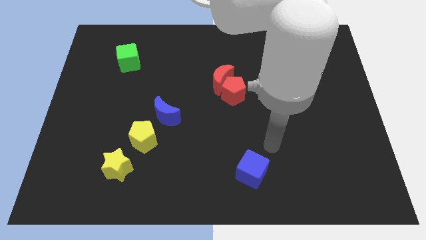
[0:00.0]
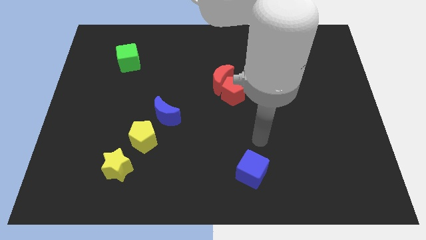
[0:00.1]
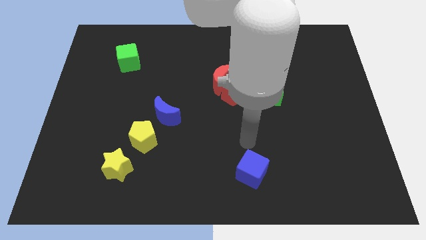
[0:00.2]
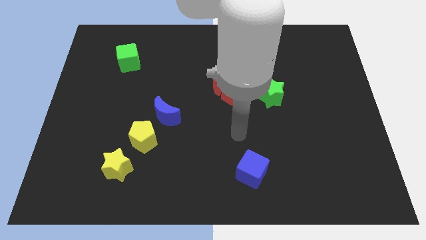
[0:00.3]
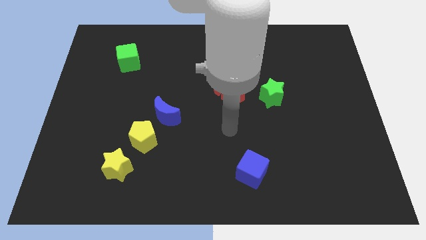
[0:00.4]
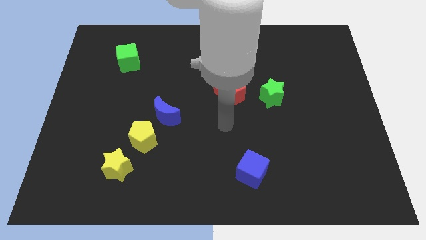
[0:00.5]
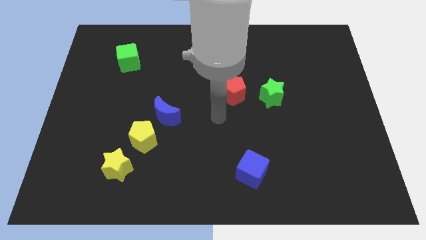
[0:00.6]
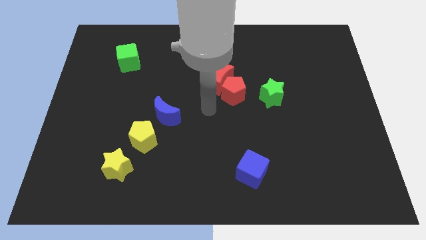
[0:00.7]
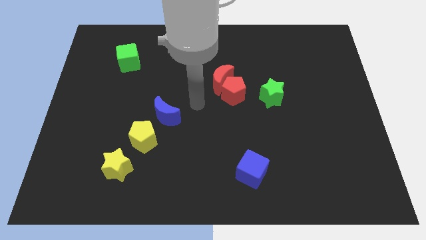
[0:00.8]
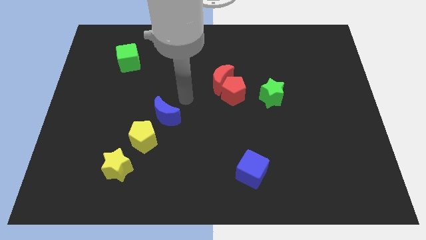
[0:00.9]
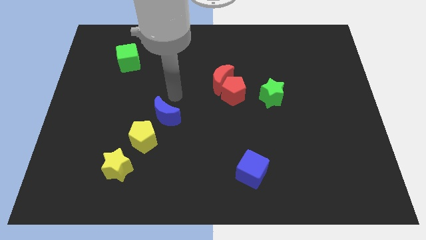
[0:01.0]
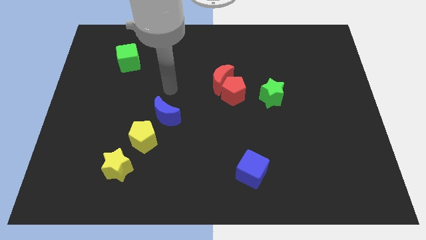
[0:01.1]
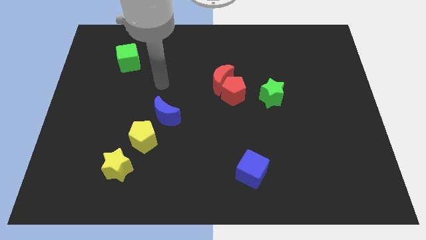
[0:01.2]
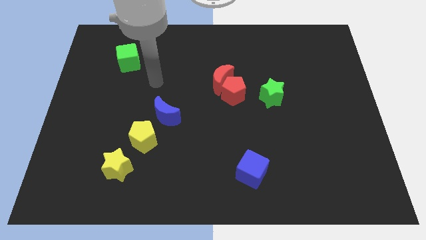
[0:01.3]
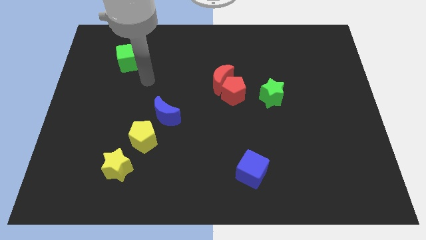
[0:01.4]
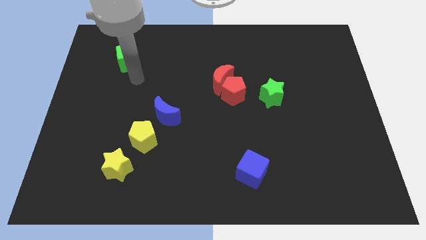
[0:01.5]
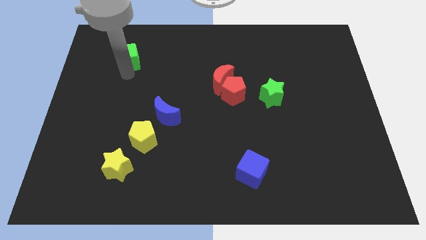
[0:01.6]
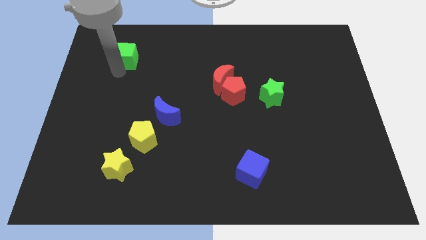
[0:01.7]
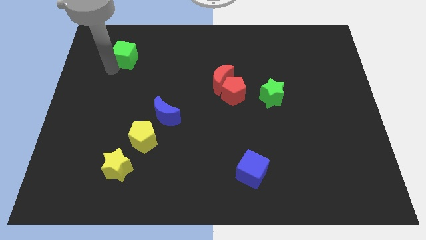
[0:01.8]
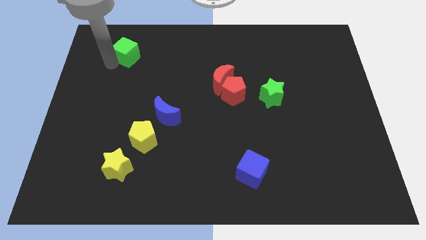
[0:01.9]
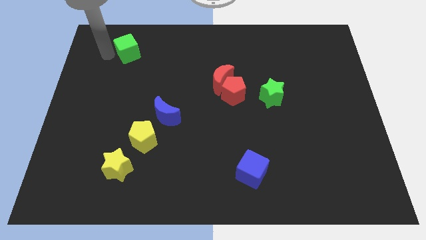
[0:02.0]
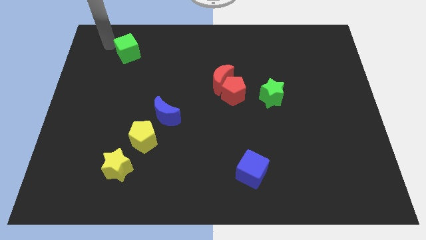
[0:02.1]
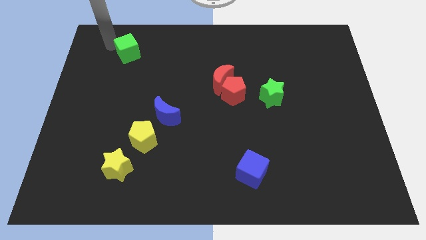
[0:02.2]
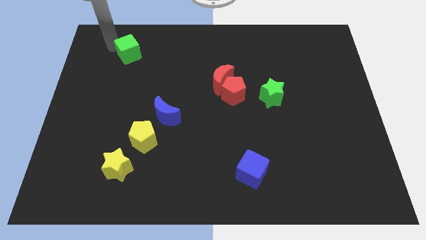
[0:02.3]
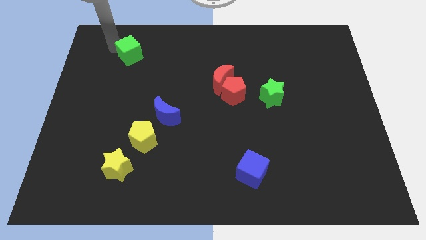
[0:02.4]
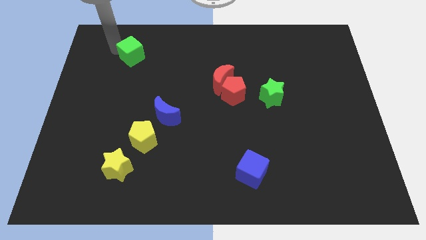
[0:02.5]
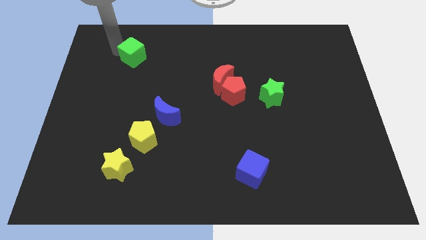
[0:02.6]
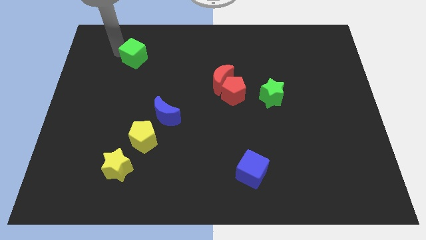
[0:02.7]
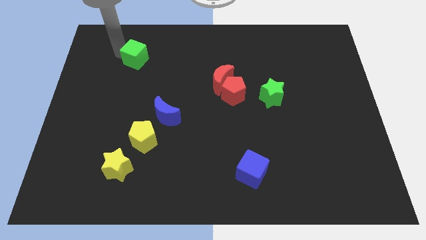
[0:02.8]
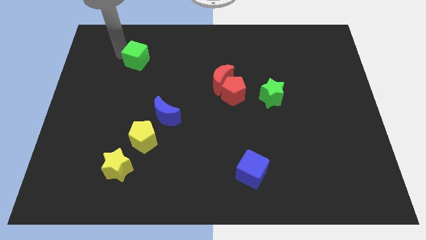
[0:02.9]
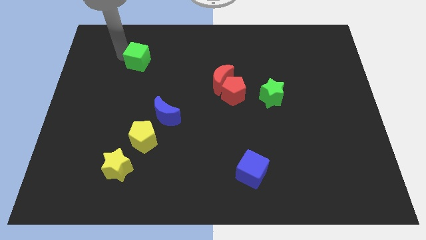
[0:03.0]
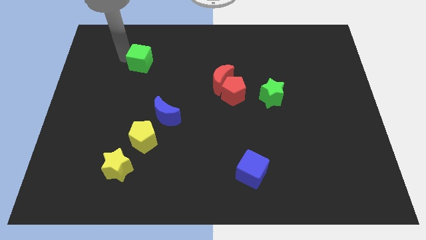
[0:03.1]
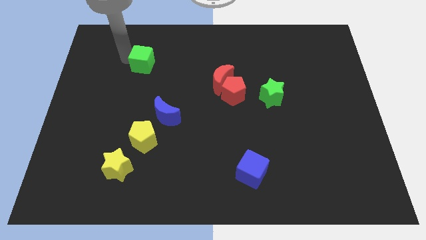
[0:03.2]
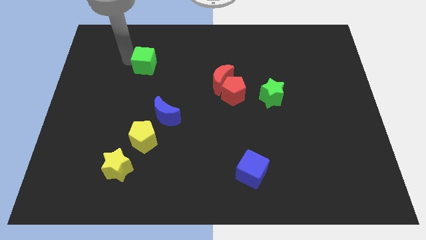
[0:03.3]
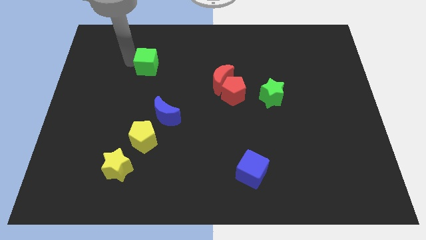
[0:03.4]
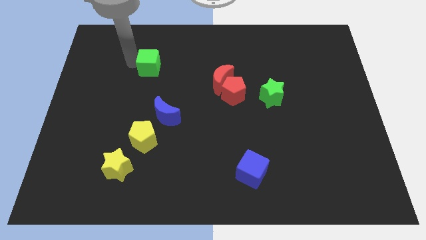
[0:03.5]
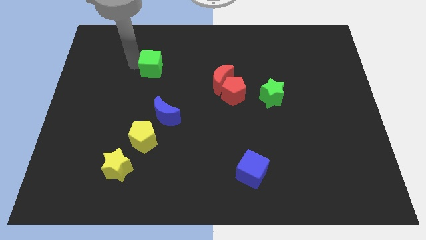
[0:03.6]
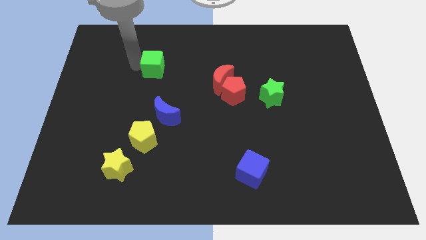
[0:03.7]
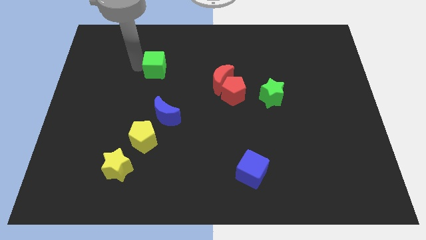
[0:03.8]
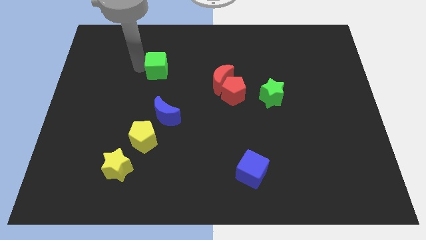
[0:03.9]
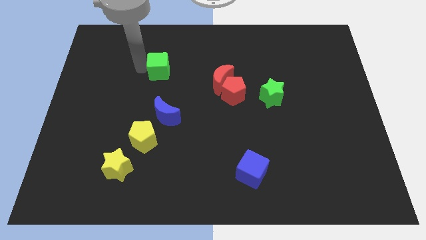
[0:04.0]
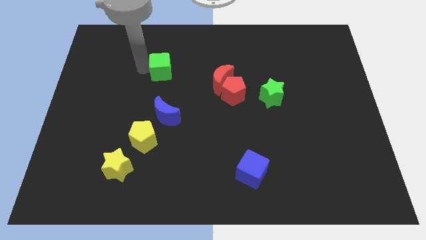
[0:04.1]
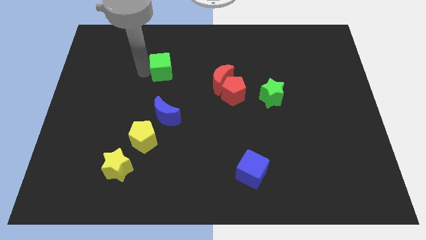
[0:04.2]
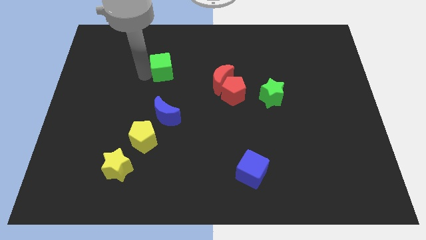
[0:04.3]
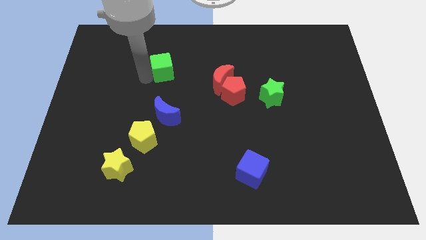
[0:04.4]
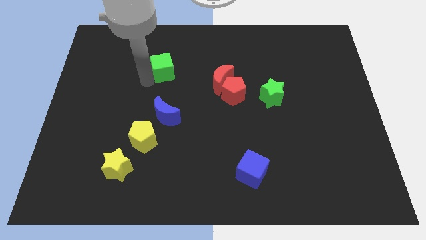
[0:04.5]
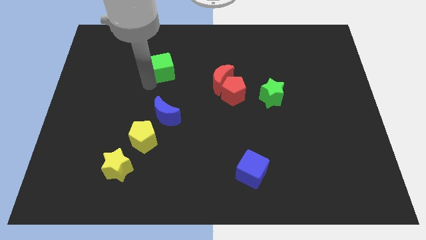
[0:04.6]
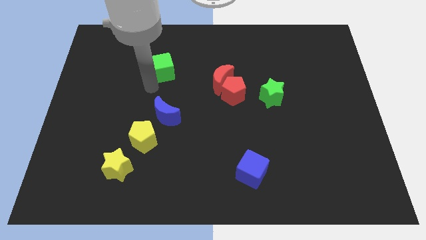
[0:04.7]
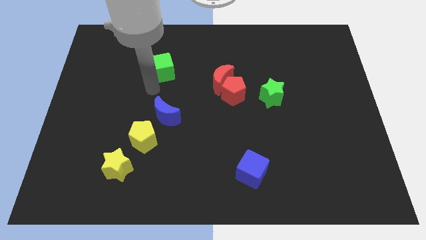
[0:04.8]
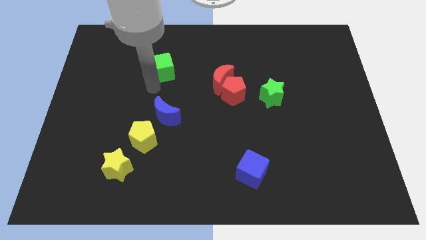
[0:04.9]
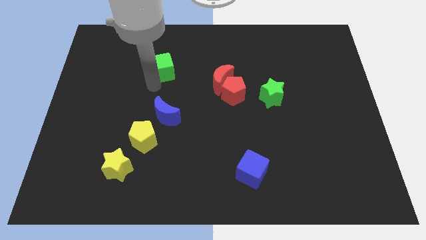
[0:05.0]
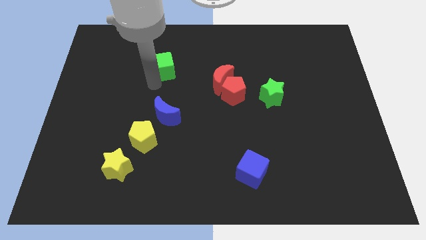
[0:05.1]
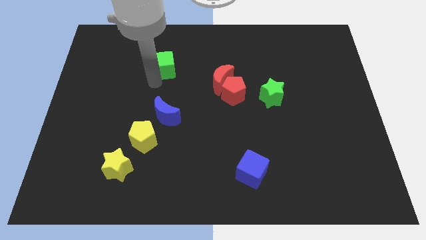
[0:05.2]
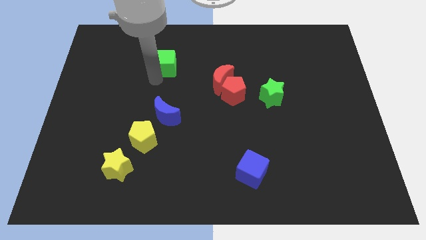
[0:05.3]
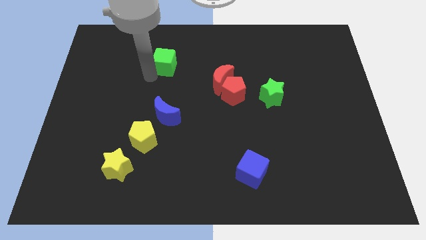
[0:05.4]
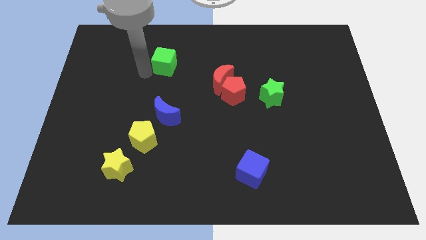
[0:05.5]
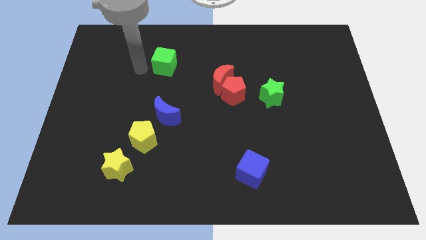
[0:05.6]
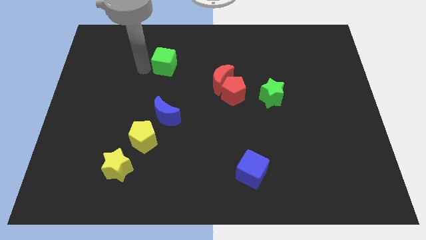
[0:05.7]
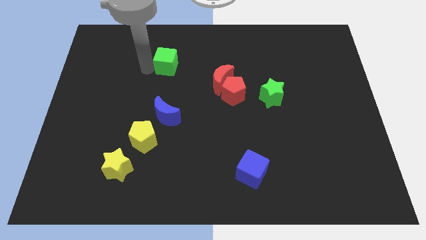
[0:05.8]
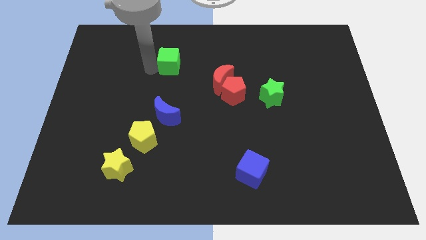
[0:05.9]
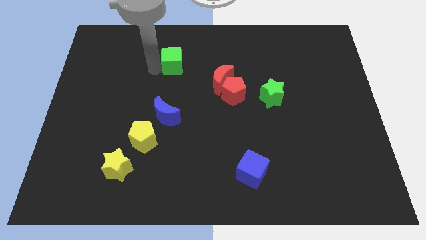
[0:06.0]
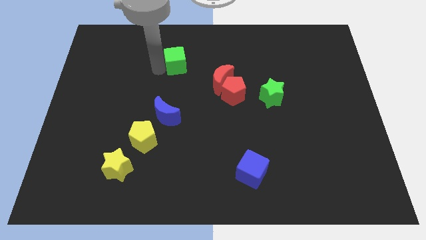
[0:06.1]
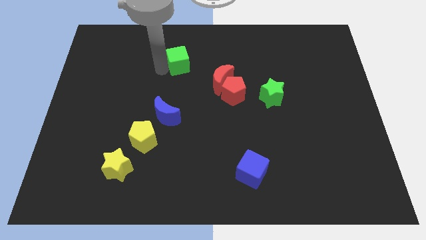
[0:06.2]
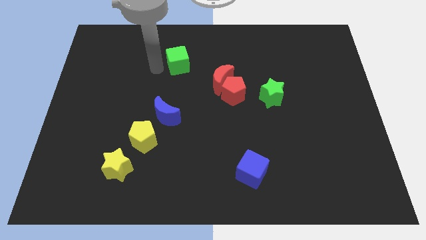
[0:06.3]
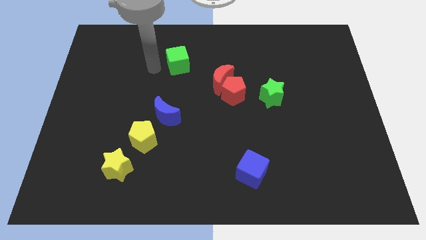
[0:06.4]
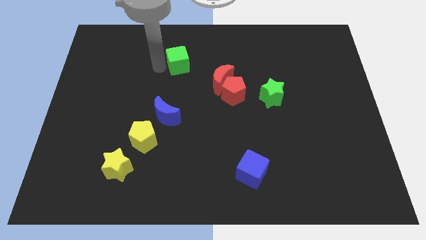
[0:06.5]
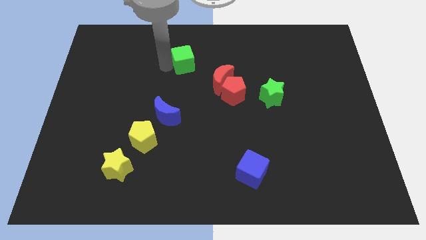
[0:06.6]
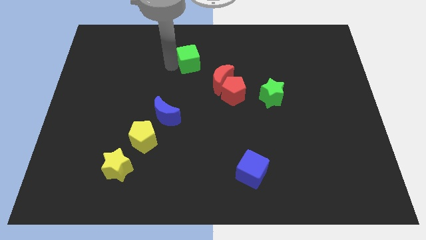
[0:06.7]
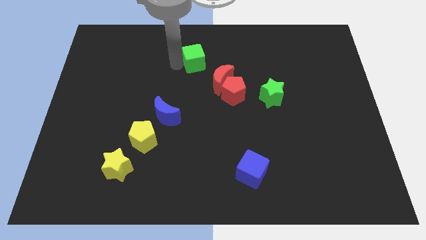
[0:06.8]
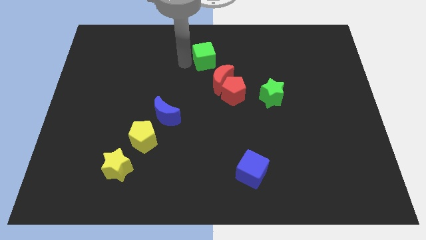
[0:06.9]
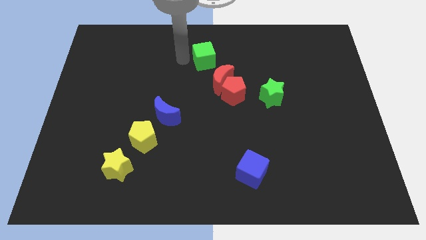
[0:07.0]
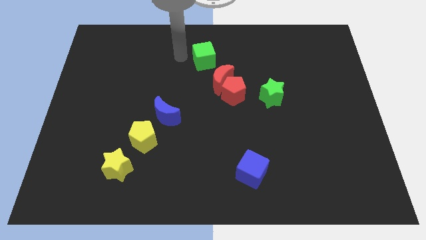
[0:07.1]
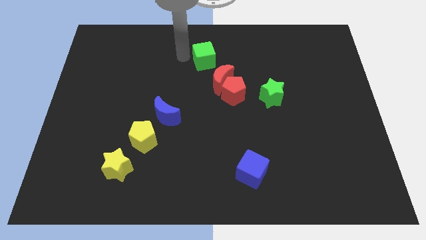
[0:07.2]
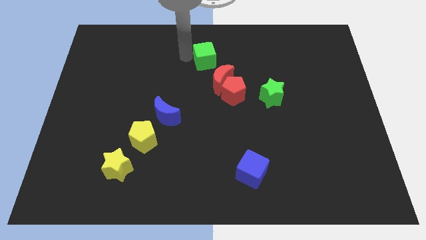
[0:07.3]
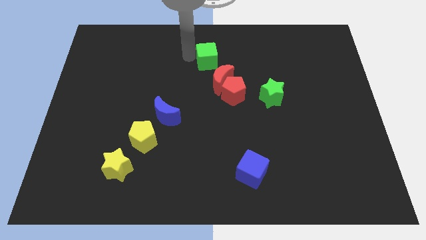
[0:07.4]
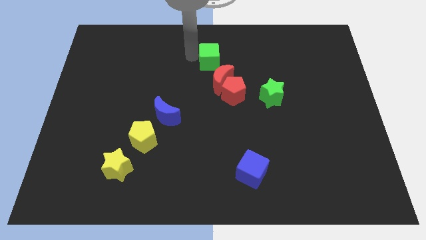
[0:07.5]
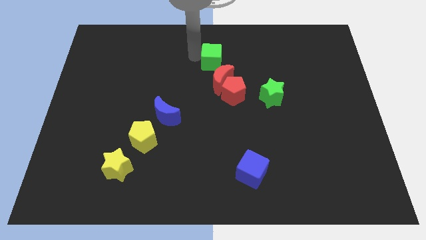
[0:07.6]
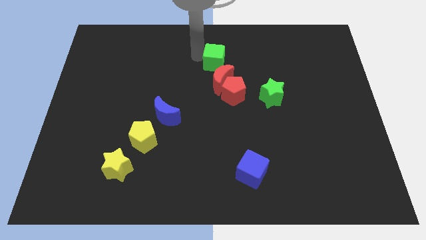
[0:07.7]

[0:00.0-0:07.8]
move the green cube to the top side of the red pentagon
